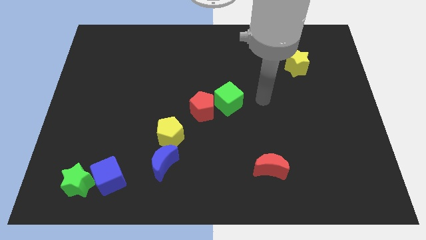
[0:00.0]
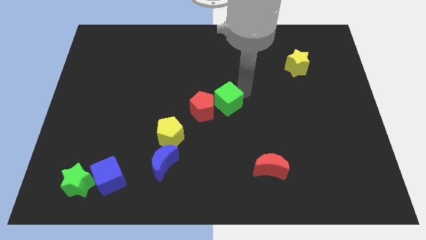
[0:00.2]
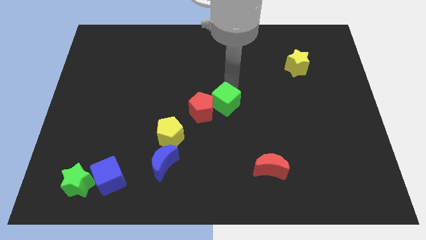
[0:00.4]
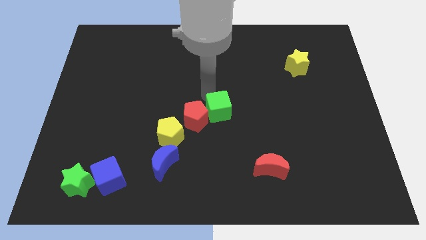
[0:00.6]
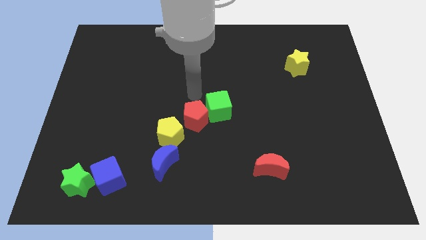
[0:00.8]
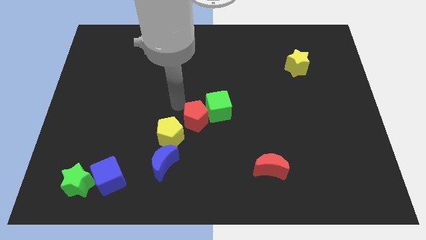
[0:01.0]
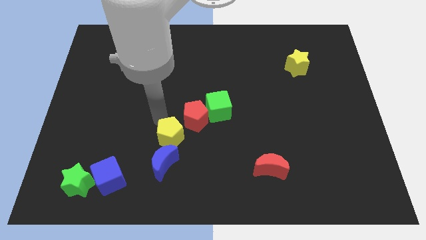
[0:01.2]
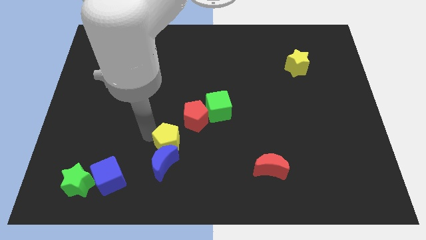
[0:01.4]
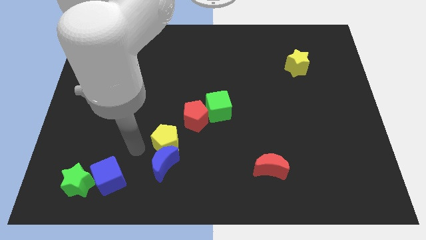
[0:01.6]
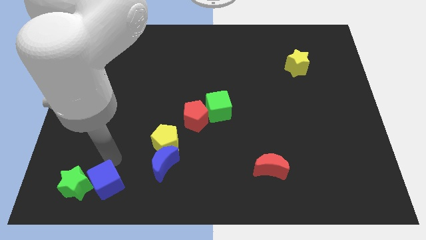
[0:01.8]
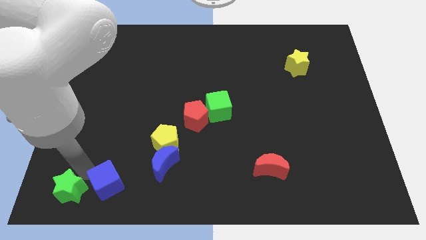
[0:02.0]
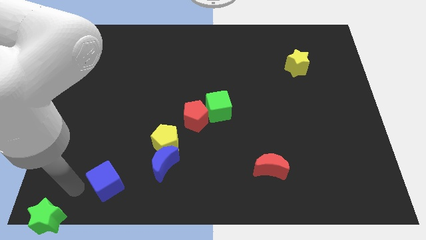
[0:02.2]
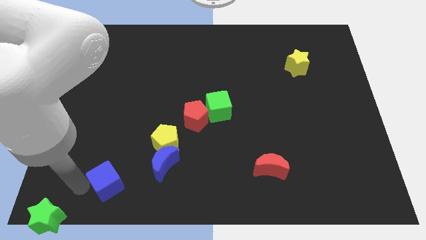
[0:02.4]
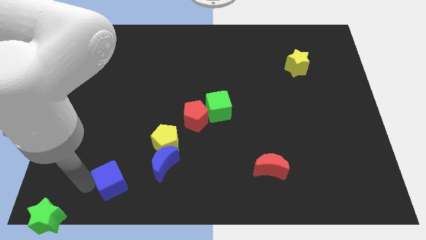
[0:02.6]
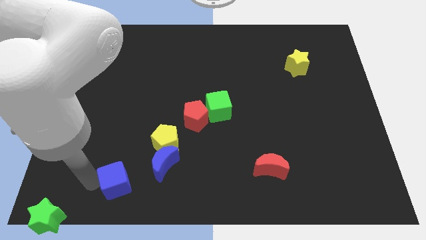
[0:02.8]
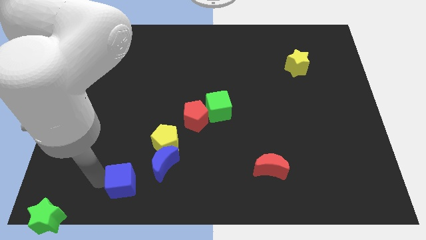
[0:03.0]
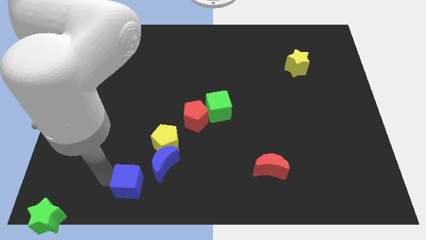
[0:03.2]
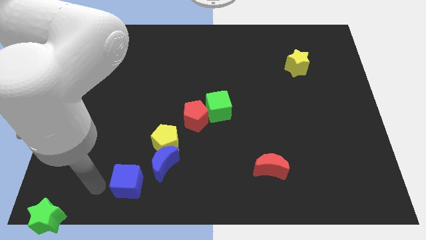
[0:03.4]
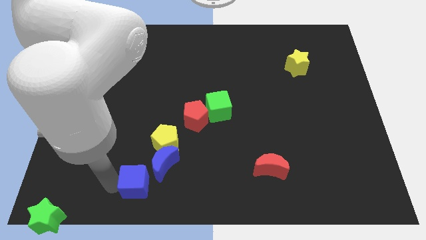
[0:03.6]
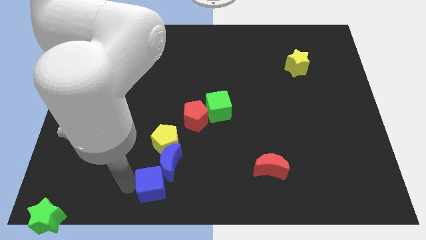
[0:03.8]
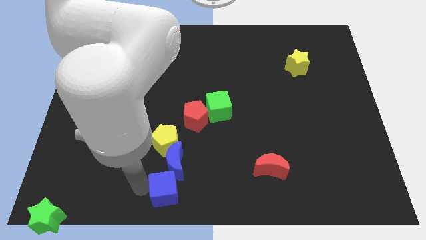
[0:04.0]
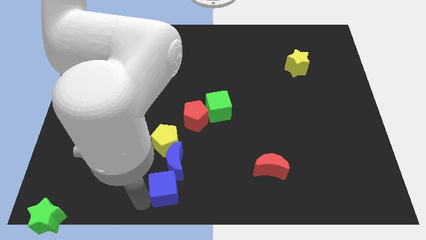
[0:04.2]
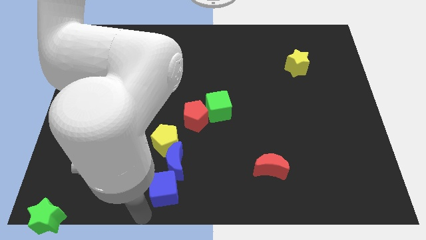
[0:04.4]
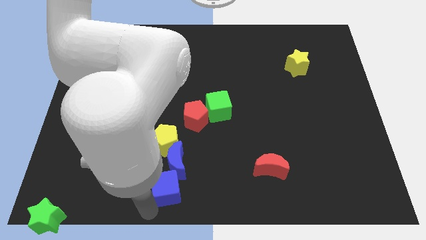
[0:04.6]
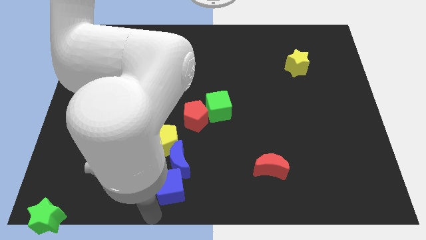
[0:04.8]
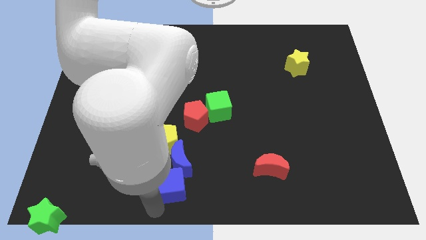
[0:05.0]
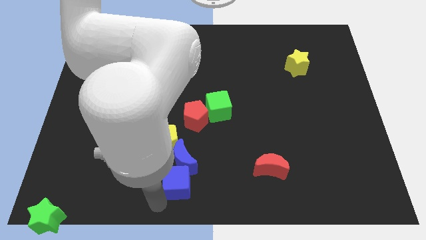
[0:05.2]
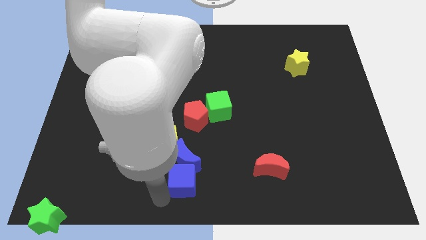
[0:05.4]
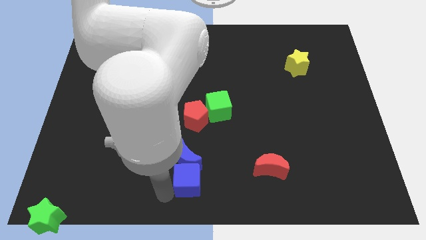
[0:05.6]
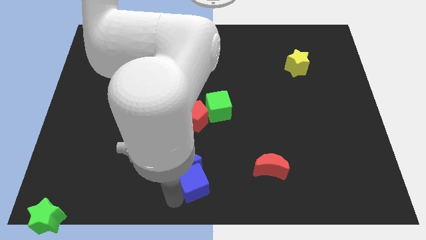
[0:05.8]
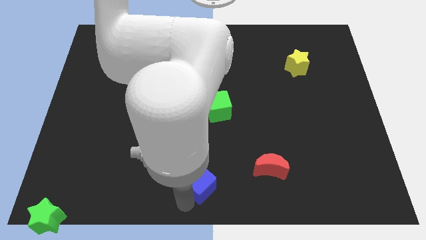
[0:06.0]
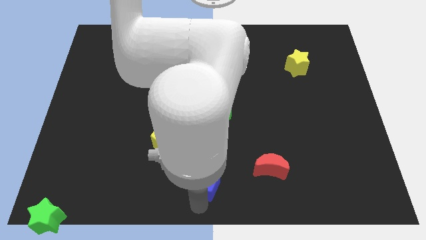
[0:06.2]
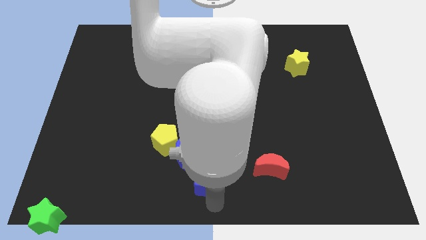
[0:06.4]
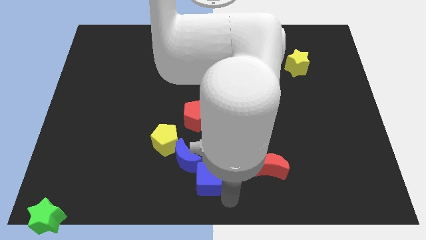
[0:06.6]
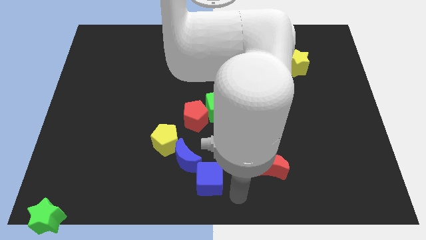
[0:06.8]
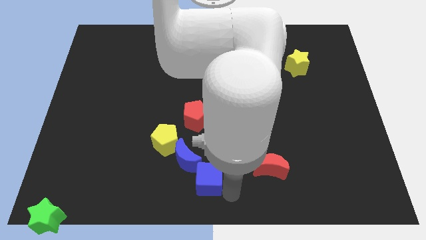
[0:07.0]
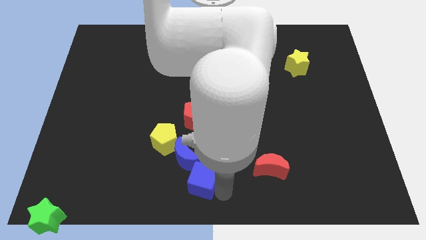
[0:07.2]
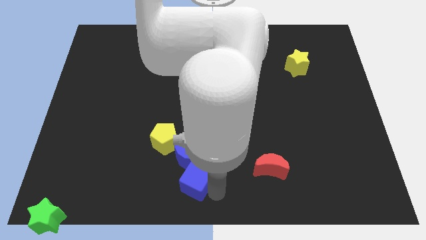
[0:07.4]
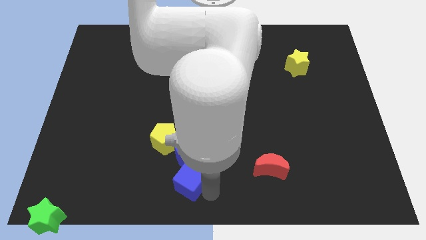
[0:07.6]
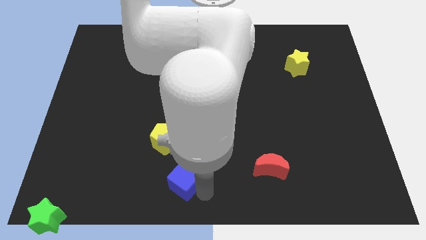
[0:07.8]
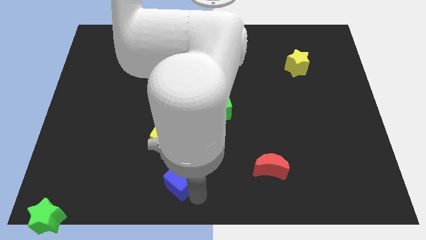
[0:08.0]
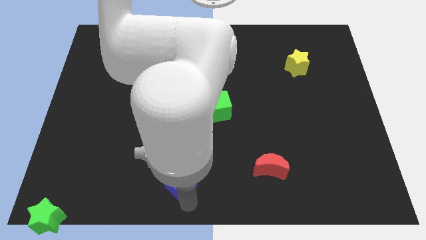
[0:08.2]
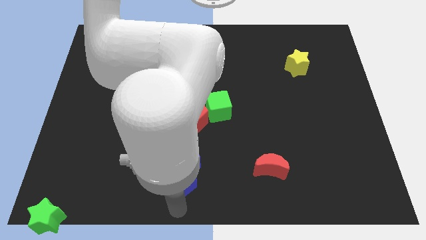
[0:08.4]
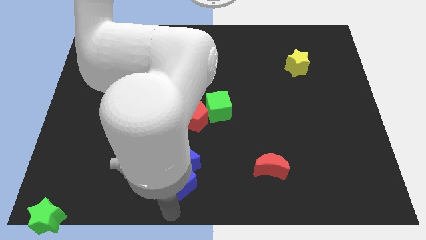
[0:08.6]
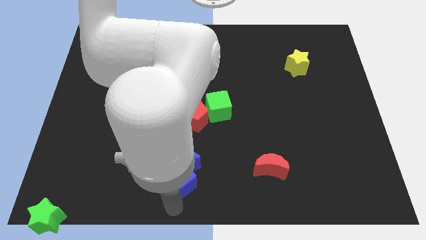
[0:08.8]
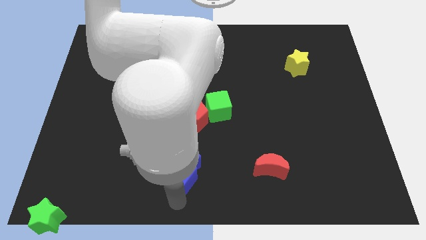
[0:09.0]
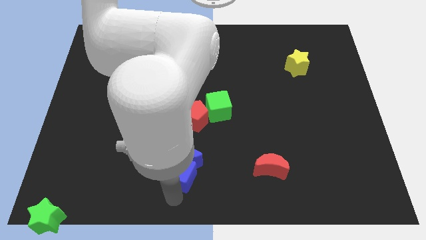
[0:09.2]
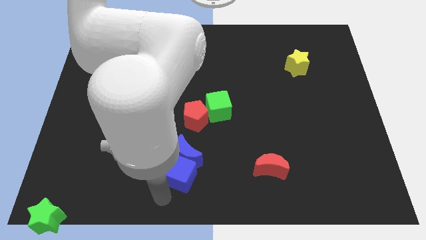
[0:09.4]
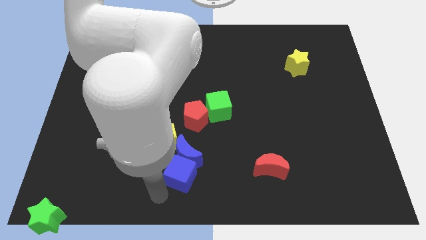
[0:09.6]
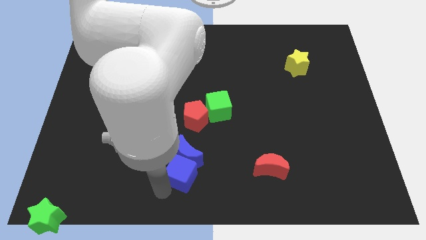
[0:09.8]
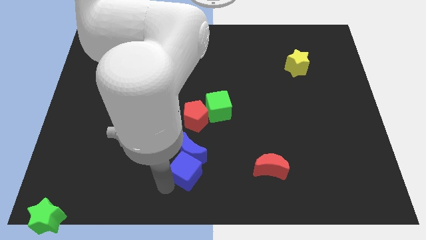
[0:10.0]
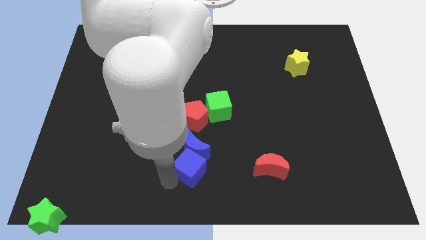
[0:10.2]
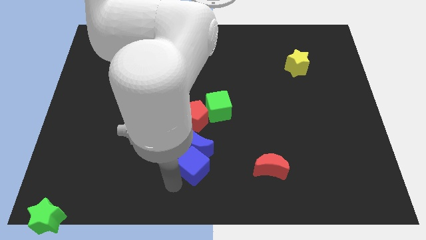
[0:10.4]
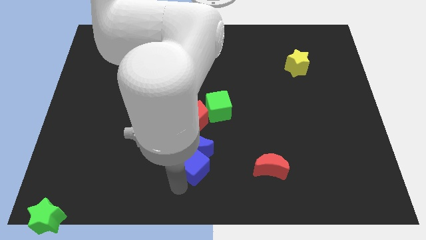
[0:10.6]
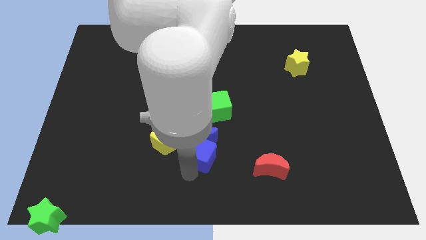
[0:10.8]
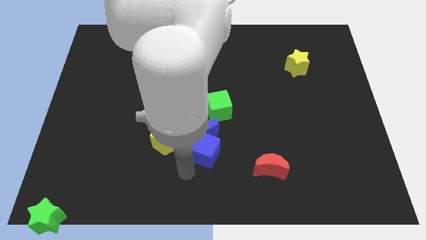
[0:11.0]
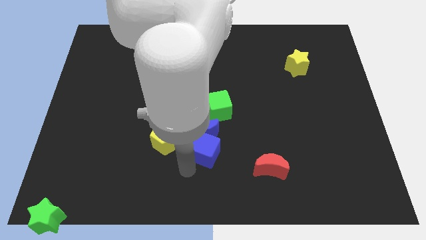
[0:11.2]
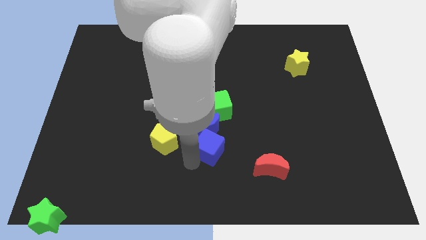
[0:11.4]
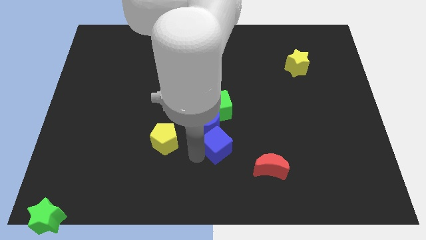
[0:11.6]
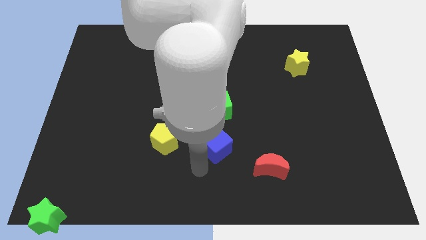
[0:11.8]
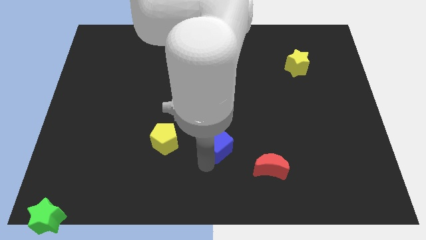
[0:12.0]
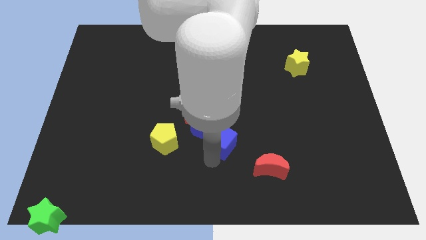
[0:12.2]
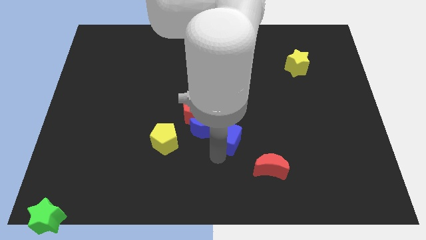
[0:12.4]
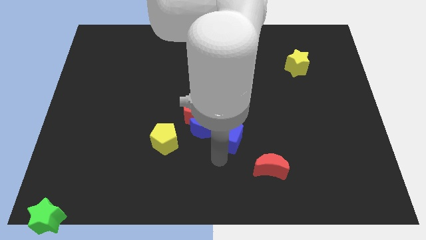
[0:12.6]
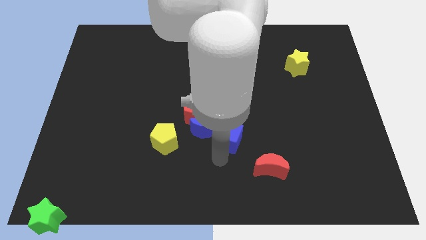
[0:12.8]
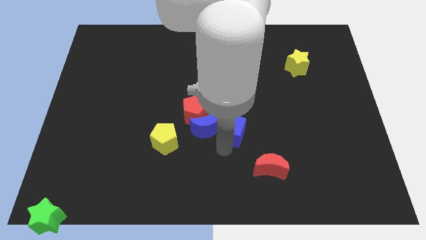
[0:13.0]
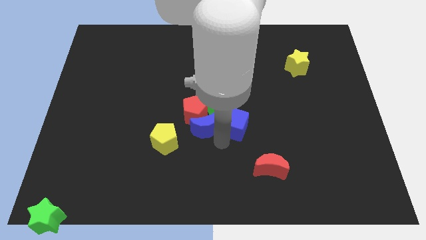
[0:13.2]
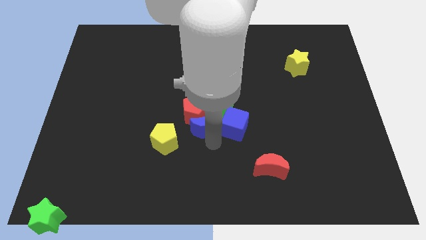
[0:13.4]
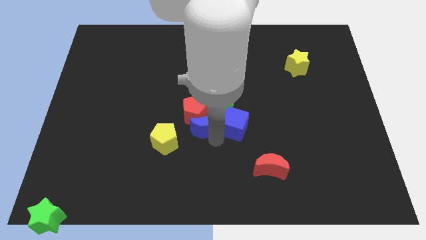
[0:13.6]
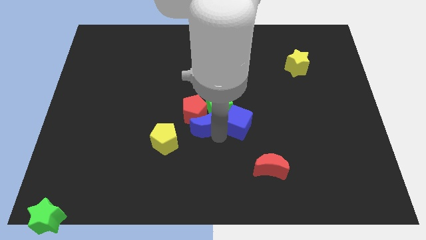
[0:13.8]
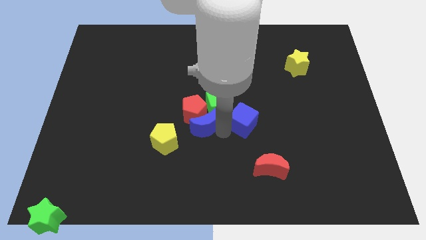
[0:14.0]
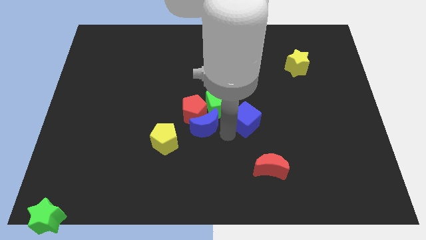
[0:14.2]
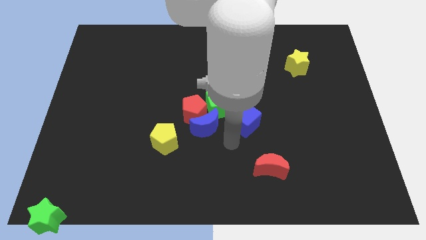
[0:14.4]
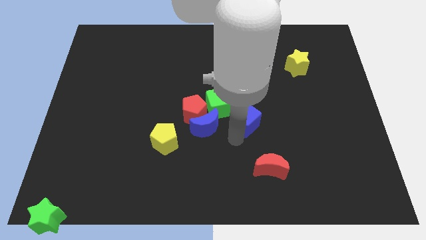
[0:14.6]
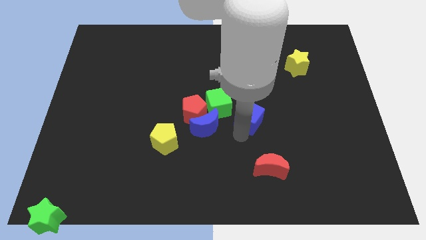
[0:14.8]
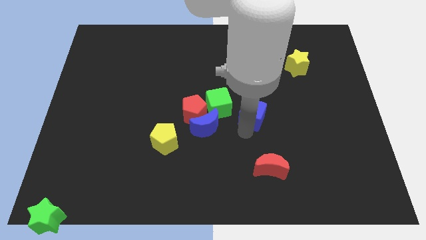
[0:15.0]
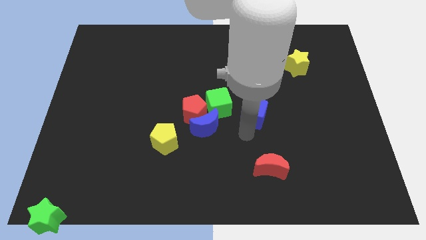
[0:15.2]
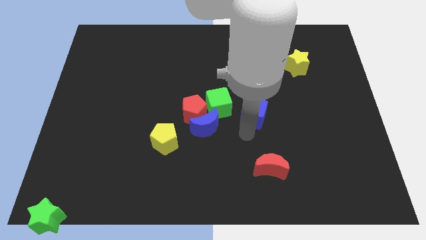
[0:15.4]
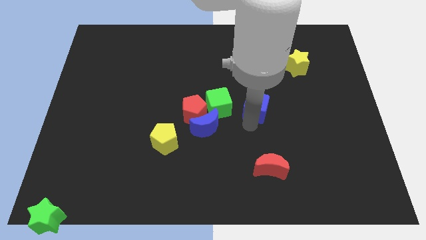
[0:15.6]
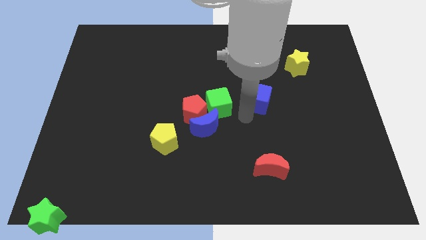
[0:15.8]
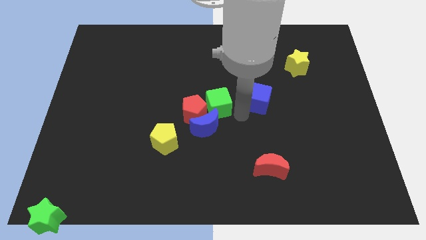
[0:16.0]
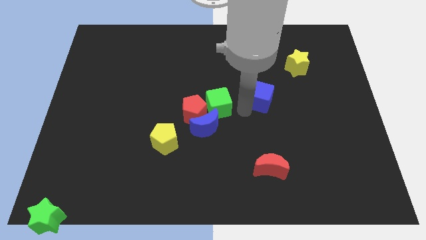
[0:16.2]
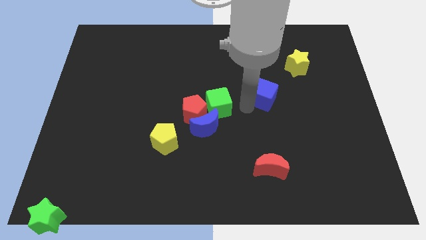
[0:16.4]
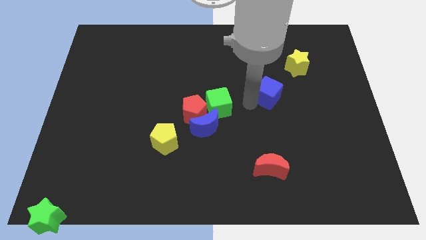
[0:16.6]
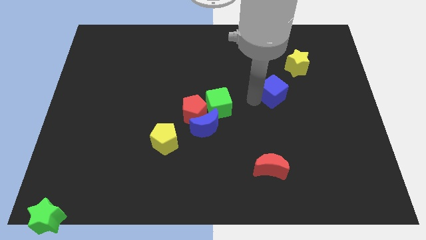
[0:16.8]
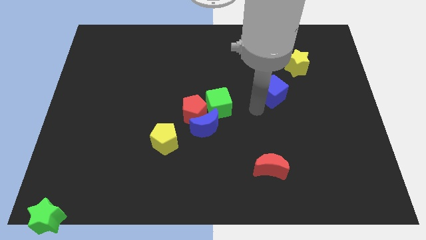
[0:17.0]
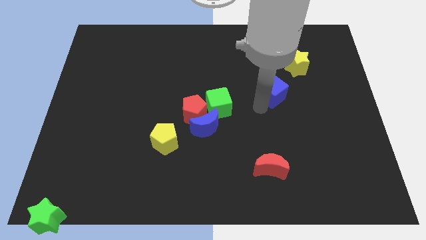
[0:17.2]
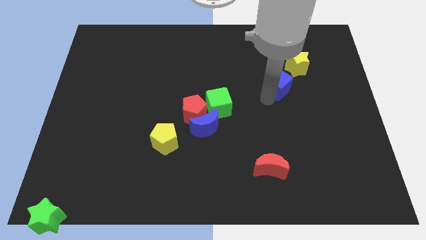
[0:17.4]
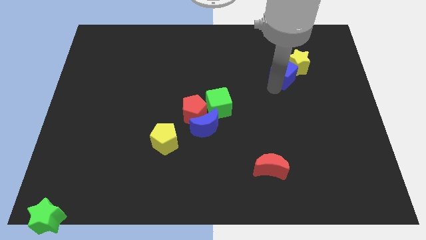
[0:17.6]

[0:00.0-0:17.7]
put the blue cube next to the yellow star
